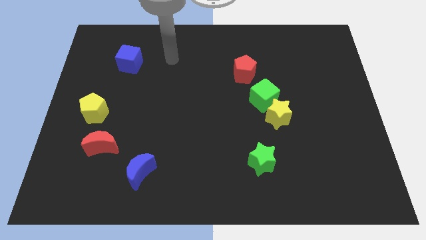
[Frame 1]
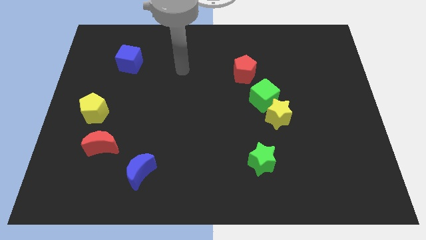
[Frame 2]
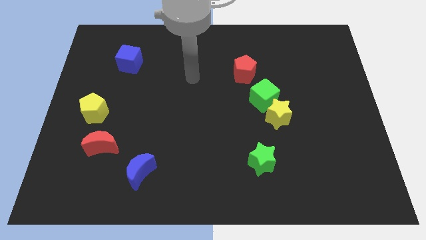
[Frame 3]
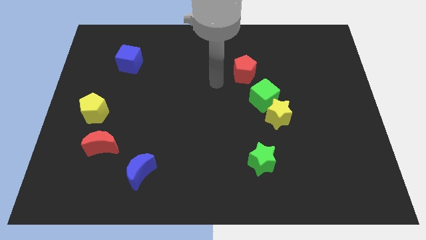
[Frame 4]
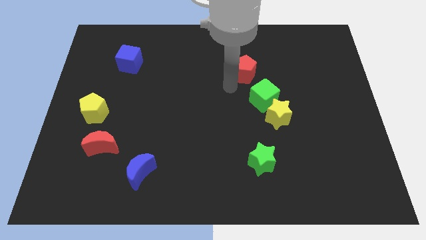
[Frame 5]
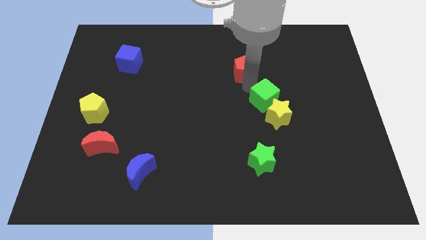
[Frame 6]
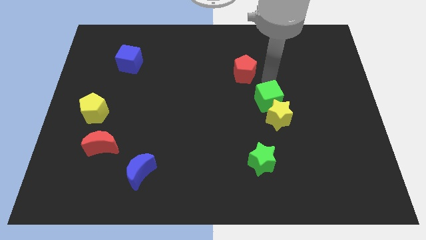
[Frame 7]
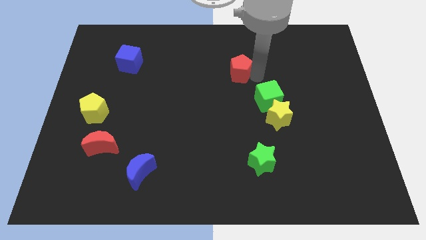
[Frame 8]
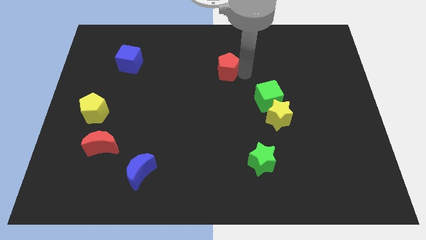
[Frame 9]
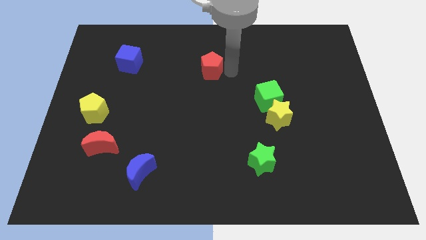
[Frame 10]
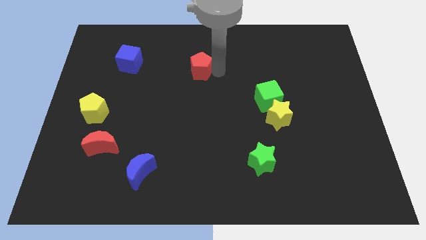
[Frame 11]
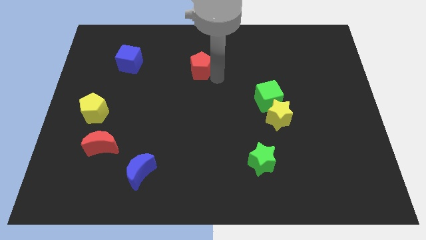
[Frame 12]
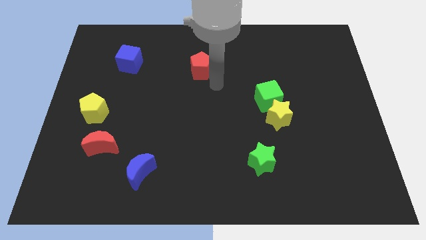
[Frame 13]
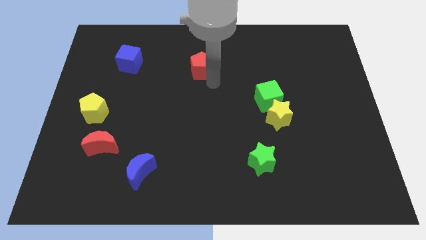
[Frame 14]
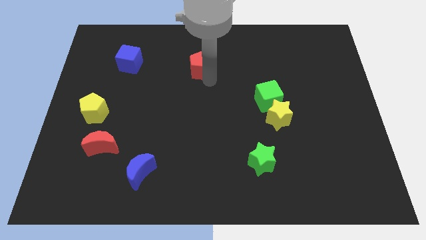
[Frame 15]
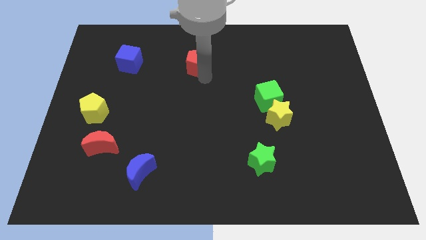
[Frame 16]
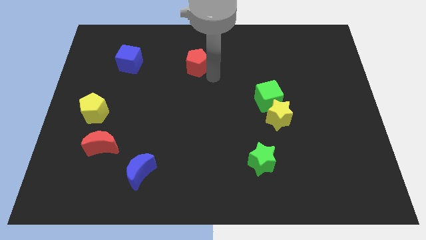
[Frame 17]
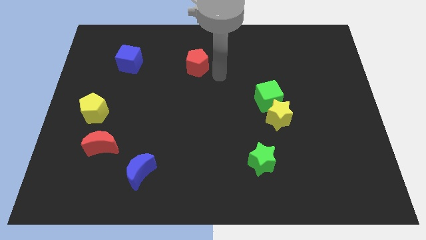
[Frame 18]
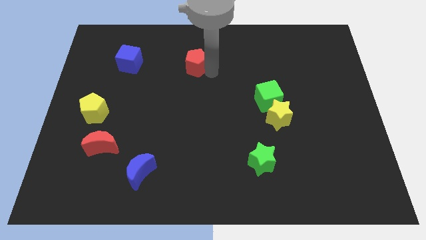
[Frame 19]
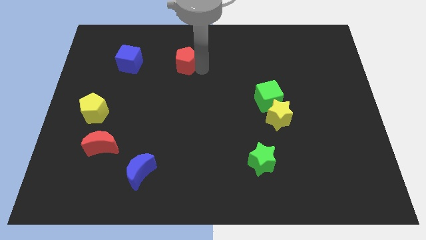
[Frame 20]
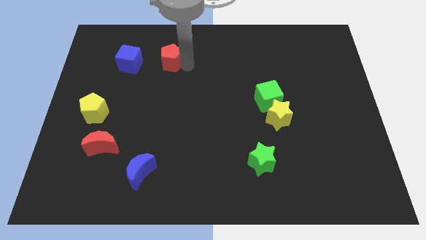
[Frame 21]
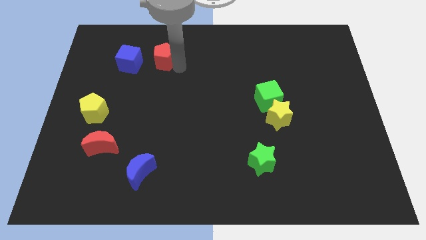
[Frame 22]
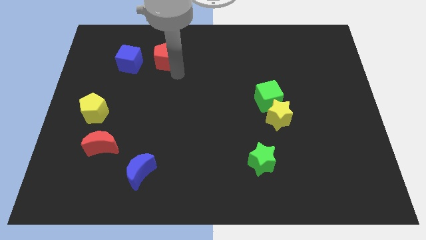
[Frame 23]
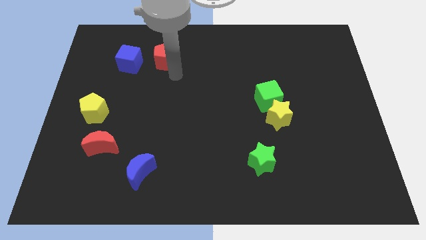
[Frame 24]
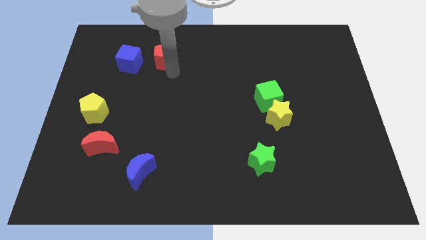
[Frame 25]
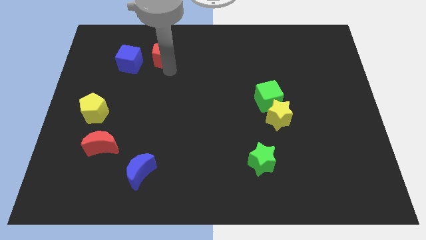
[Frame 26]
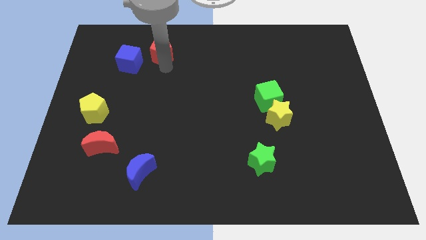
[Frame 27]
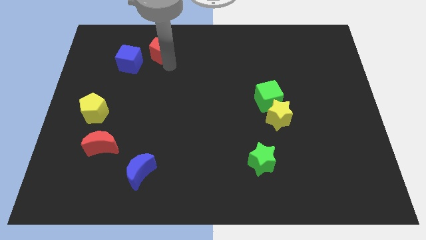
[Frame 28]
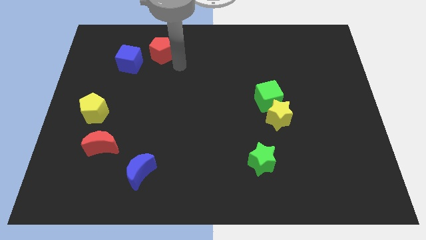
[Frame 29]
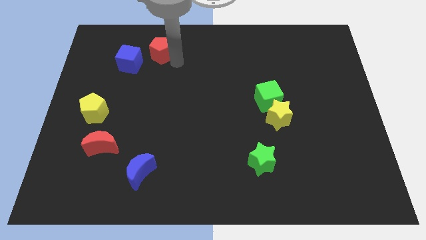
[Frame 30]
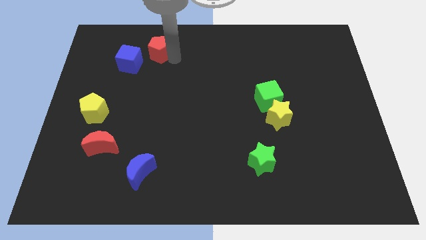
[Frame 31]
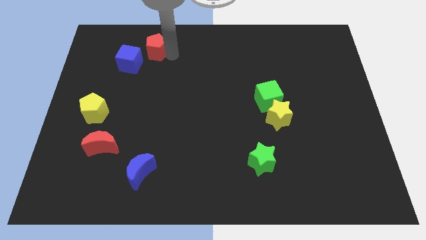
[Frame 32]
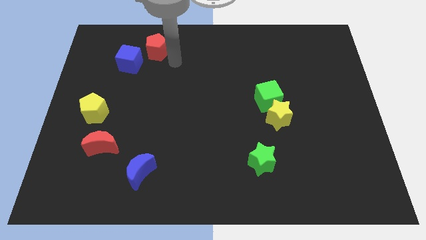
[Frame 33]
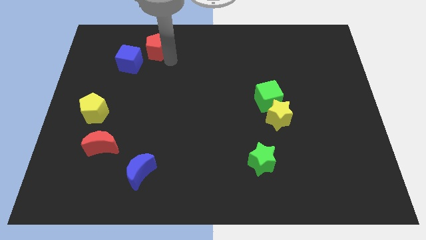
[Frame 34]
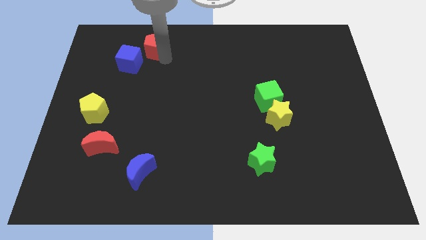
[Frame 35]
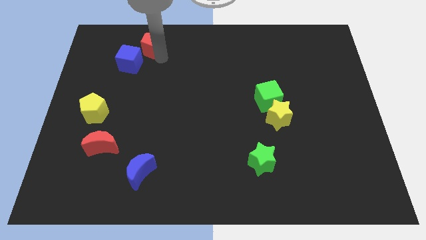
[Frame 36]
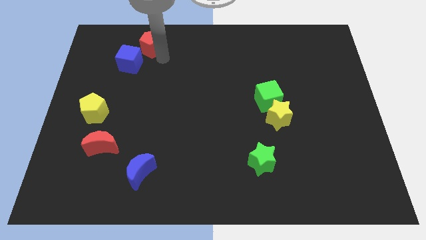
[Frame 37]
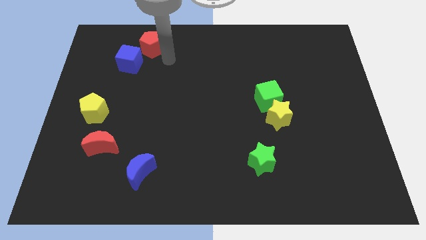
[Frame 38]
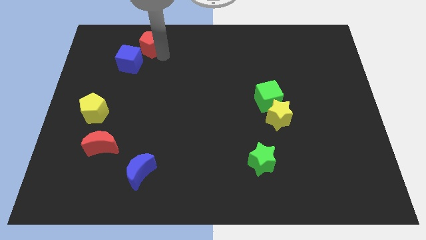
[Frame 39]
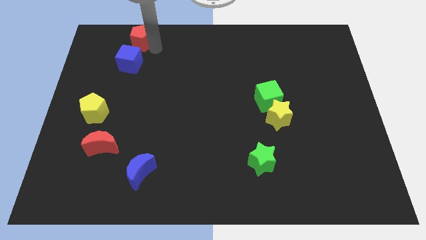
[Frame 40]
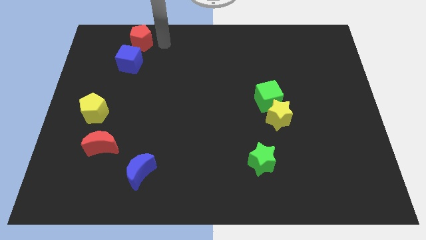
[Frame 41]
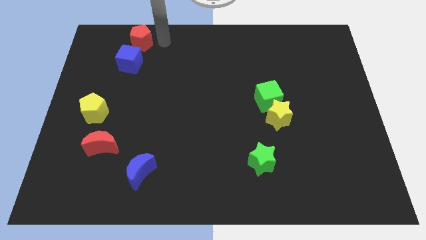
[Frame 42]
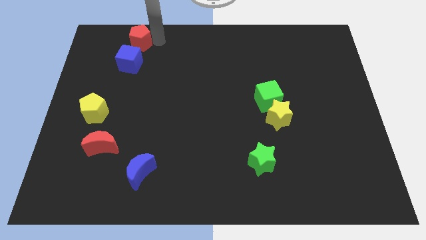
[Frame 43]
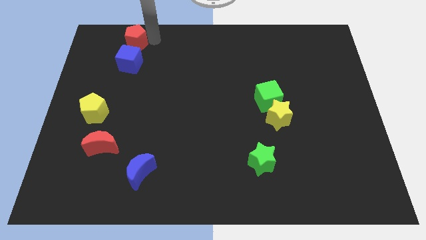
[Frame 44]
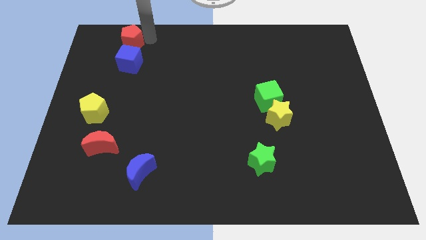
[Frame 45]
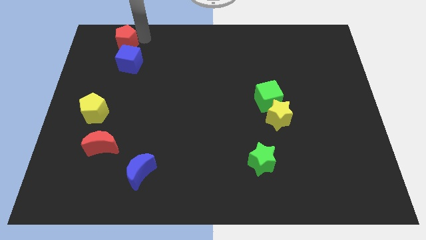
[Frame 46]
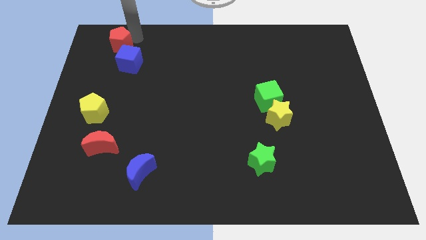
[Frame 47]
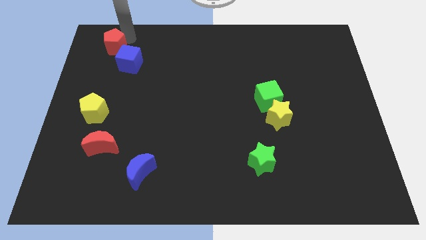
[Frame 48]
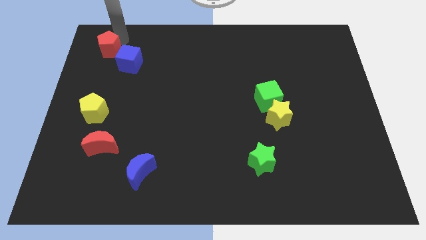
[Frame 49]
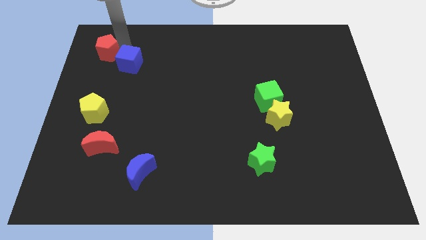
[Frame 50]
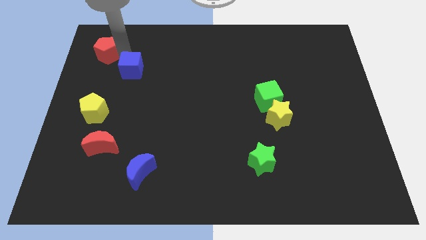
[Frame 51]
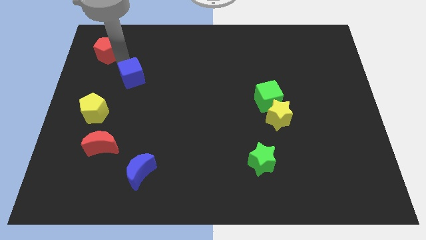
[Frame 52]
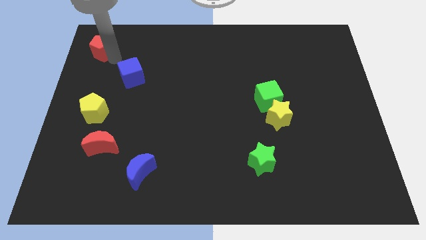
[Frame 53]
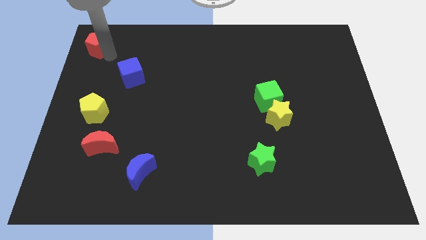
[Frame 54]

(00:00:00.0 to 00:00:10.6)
put the red pentagon to the upper left corner

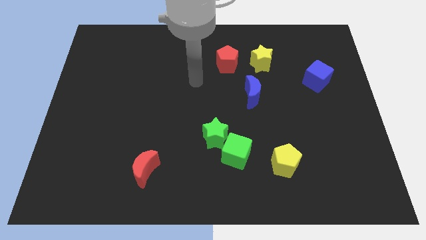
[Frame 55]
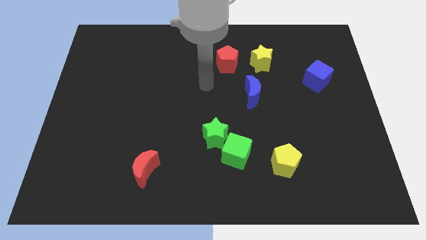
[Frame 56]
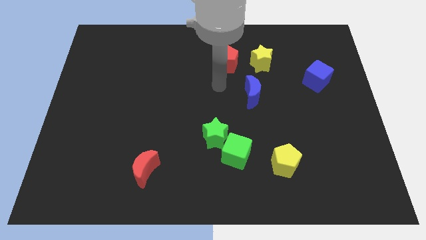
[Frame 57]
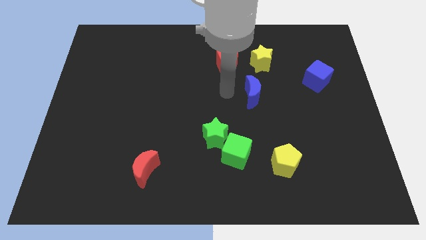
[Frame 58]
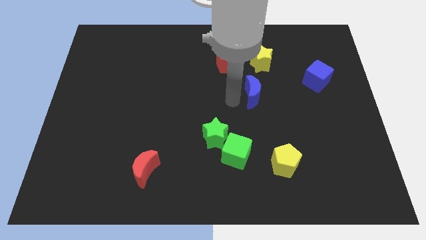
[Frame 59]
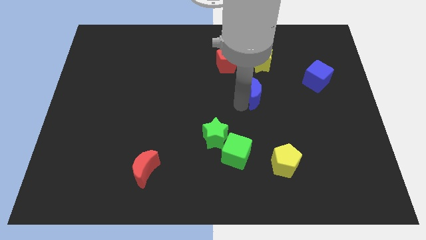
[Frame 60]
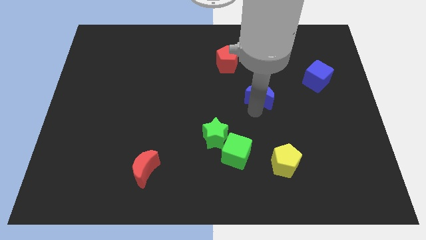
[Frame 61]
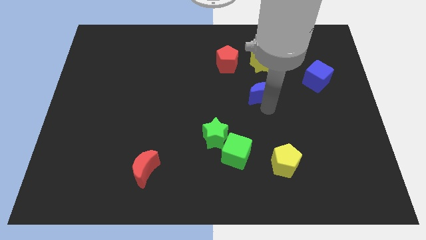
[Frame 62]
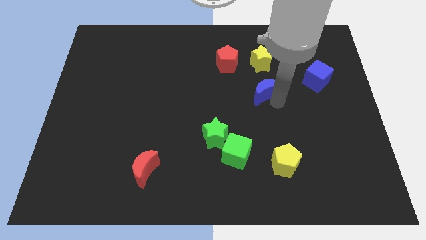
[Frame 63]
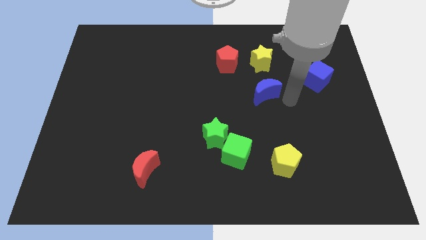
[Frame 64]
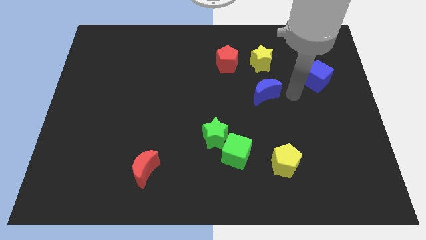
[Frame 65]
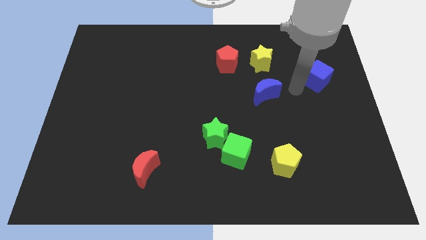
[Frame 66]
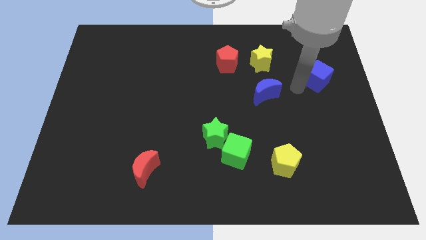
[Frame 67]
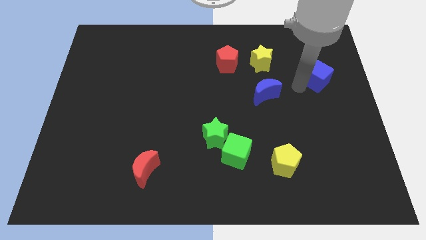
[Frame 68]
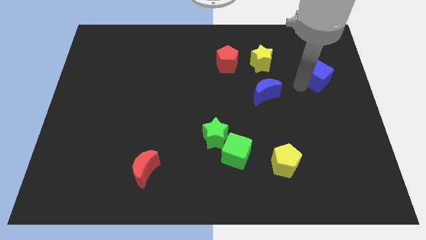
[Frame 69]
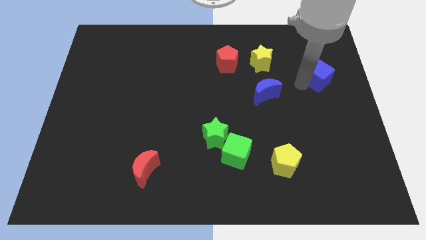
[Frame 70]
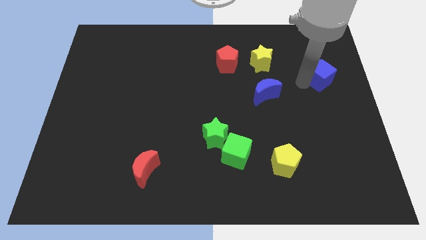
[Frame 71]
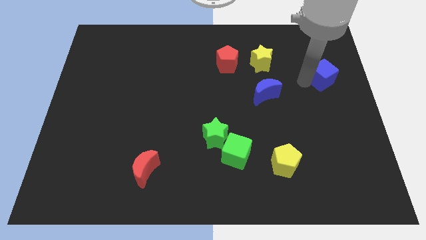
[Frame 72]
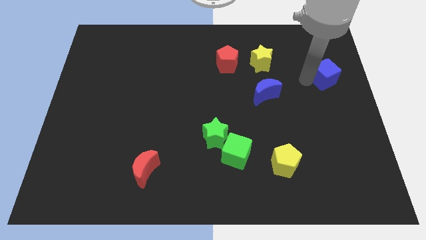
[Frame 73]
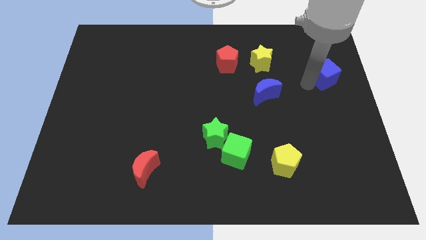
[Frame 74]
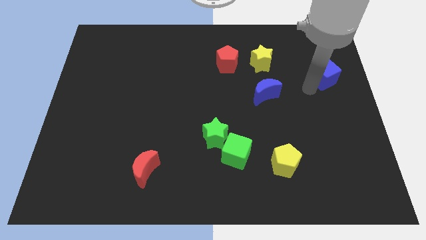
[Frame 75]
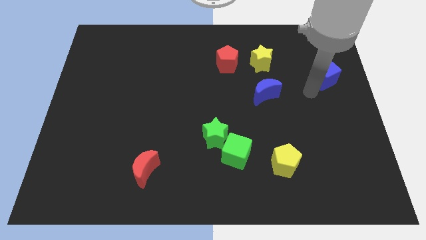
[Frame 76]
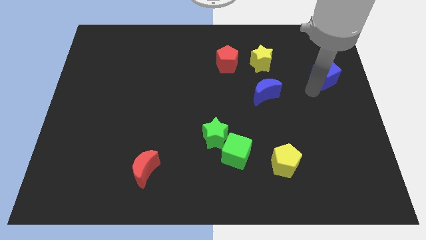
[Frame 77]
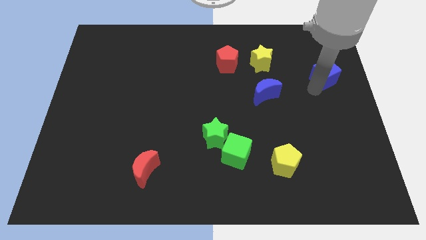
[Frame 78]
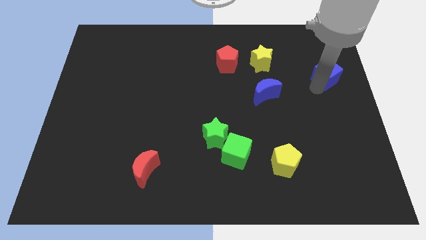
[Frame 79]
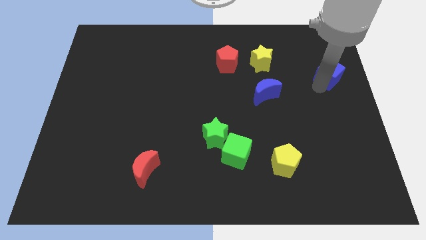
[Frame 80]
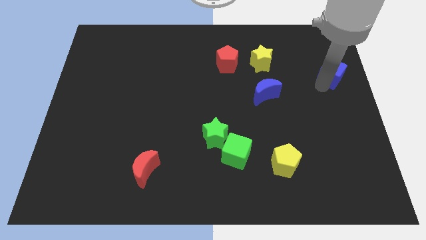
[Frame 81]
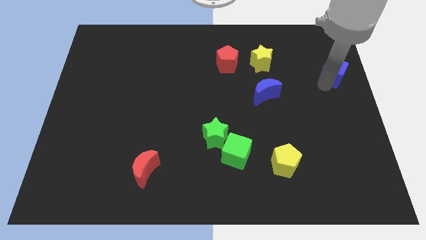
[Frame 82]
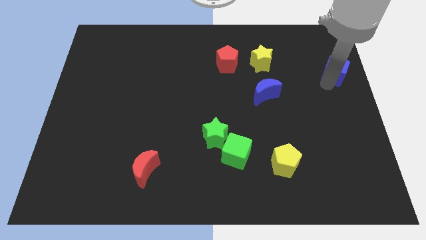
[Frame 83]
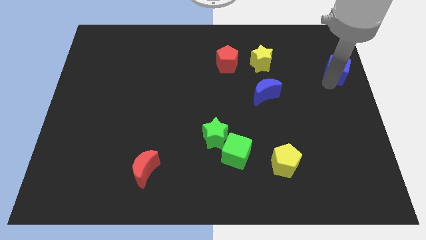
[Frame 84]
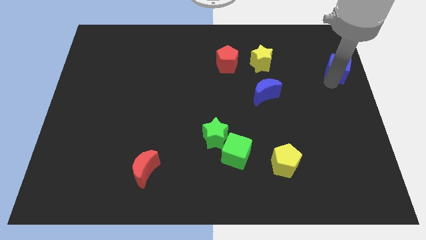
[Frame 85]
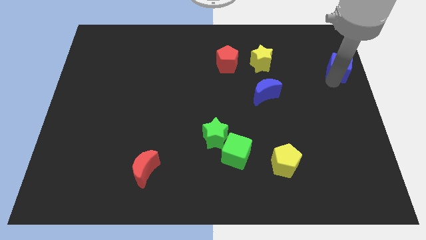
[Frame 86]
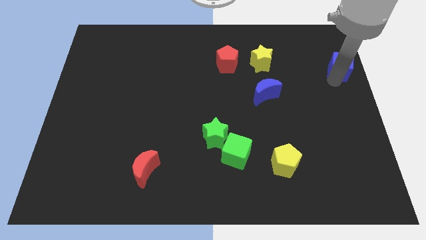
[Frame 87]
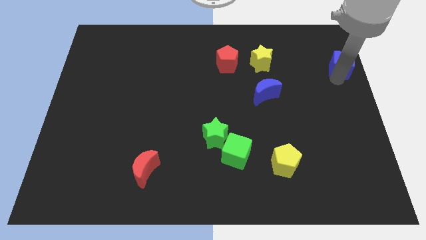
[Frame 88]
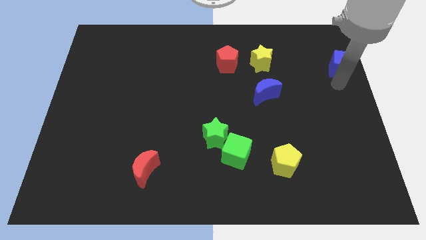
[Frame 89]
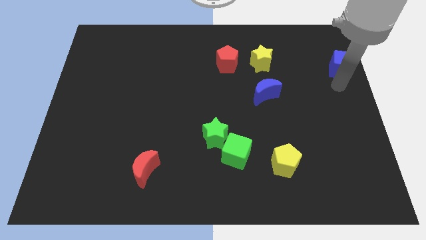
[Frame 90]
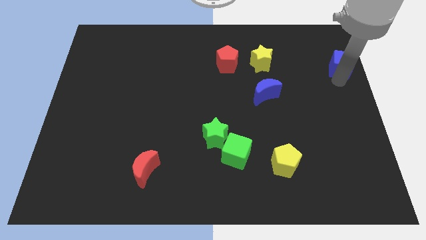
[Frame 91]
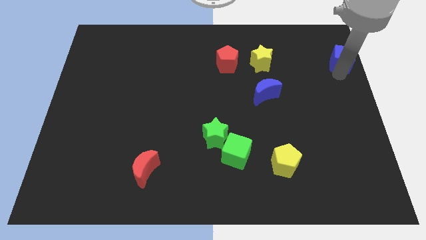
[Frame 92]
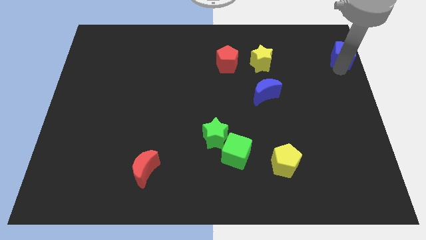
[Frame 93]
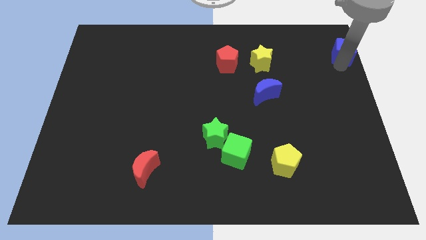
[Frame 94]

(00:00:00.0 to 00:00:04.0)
slide the blue cube to the top right of the board
